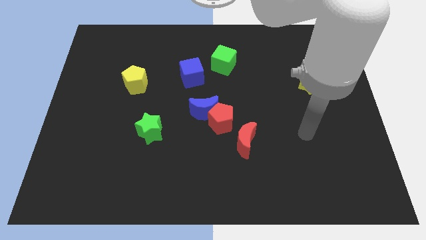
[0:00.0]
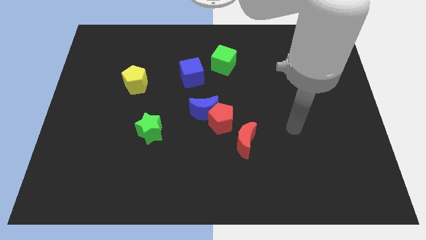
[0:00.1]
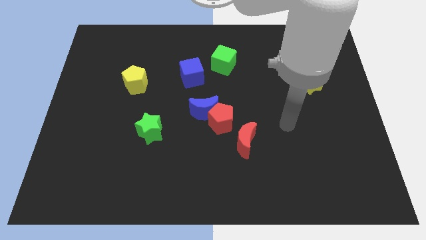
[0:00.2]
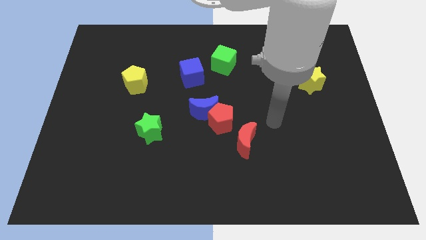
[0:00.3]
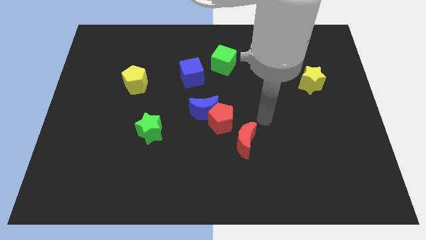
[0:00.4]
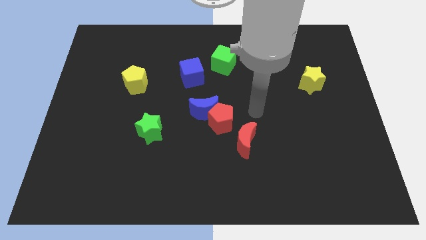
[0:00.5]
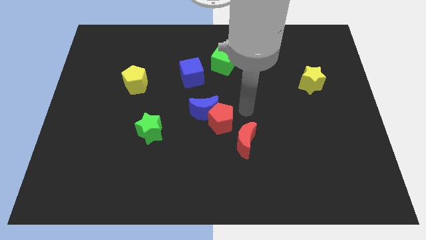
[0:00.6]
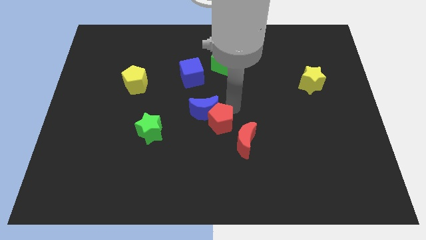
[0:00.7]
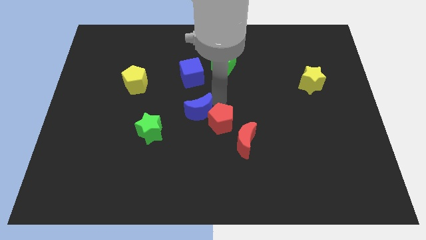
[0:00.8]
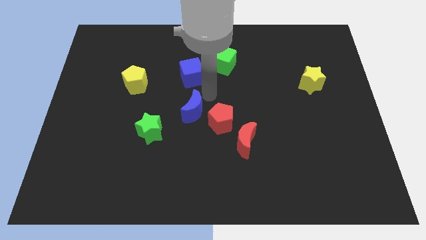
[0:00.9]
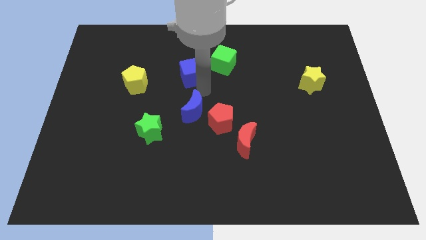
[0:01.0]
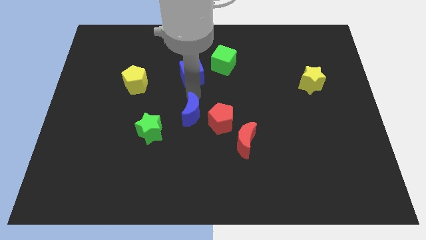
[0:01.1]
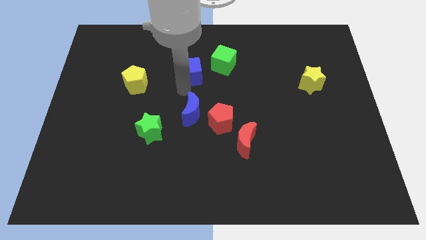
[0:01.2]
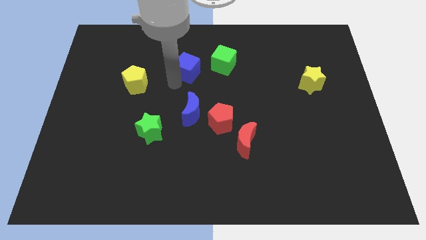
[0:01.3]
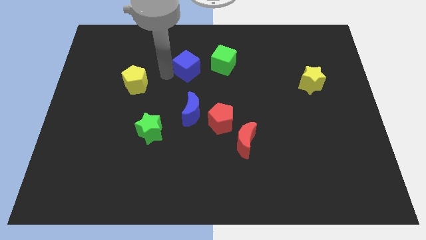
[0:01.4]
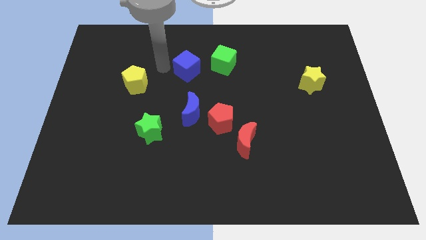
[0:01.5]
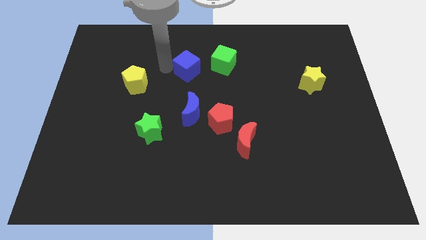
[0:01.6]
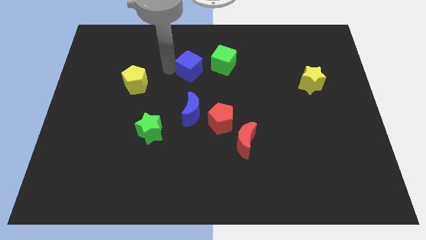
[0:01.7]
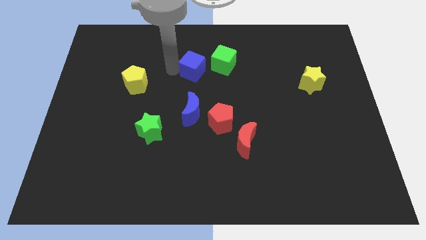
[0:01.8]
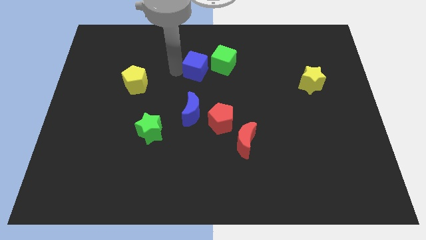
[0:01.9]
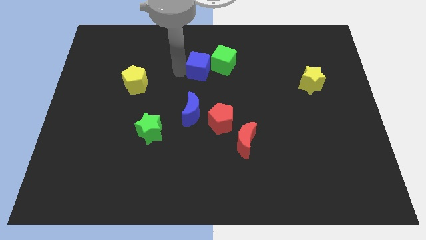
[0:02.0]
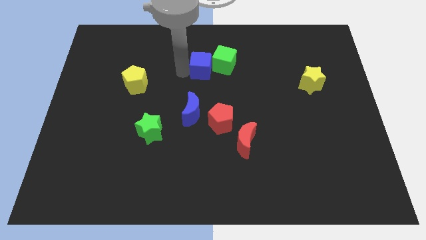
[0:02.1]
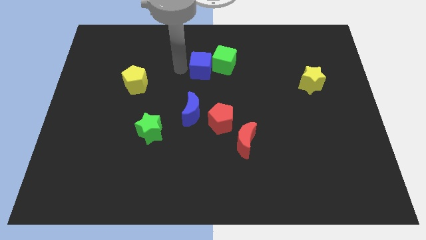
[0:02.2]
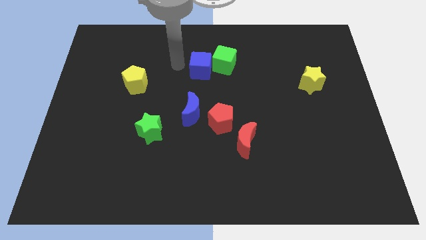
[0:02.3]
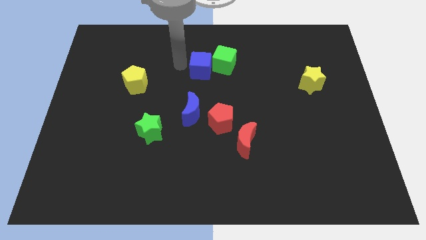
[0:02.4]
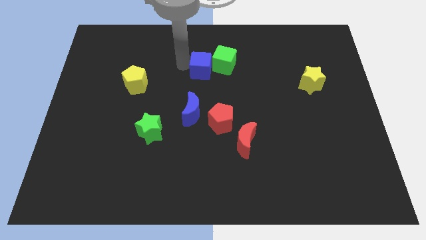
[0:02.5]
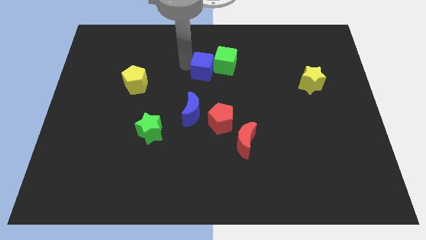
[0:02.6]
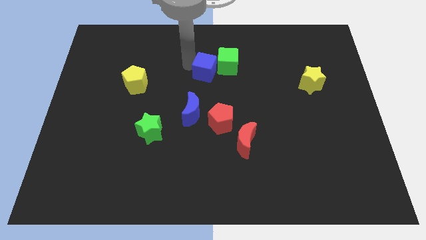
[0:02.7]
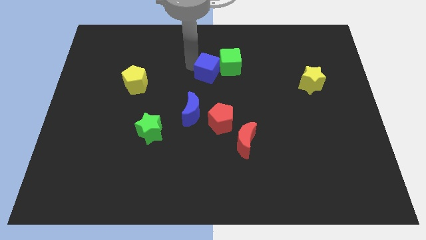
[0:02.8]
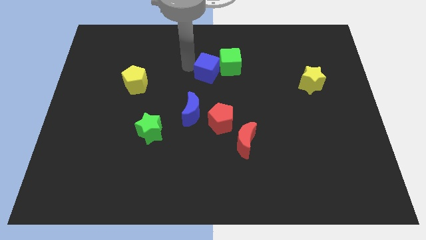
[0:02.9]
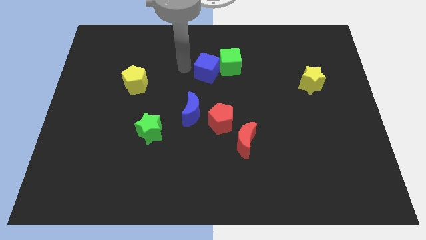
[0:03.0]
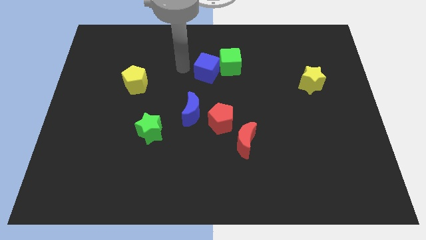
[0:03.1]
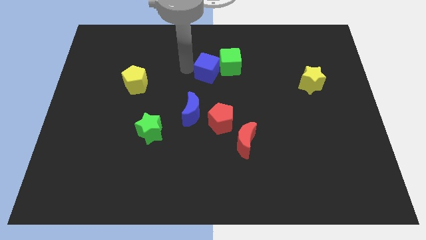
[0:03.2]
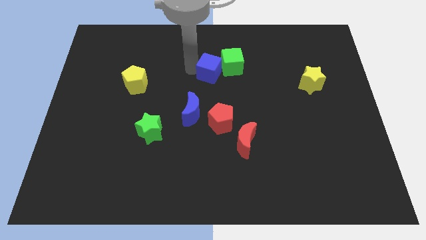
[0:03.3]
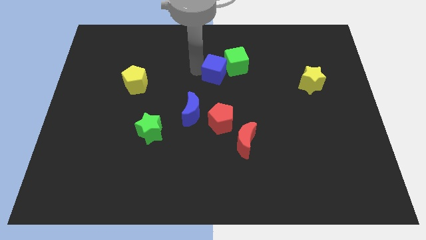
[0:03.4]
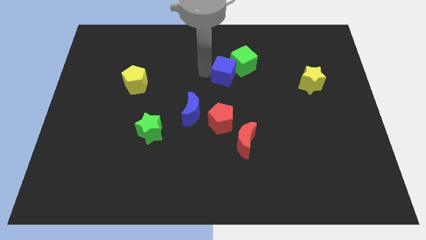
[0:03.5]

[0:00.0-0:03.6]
move the blue cube to the right a little

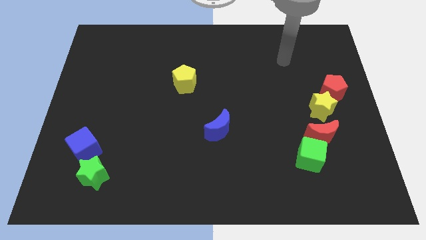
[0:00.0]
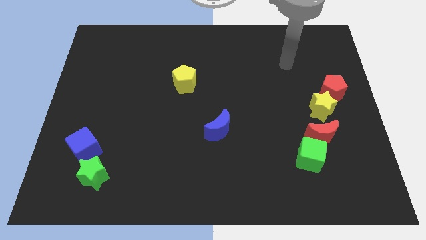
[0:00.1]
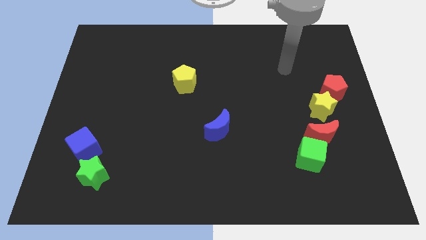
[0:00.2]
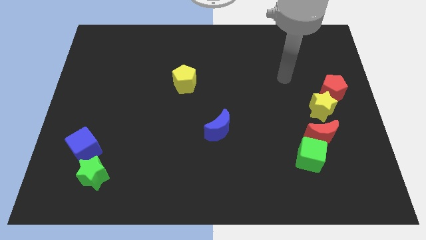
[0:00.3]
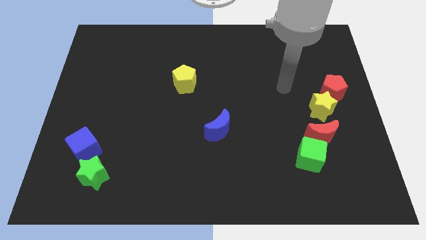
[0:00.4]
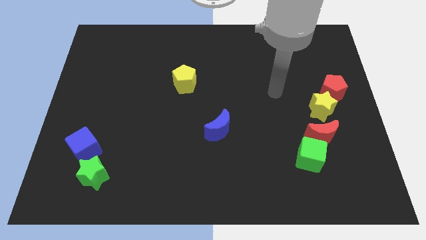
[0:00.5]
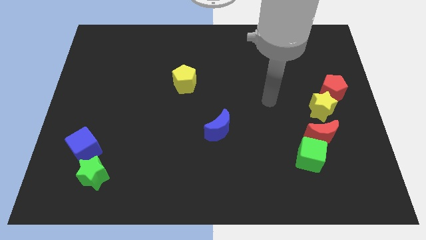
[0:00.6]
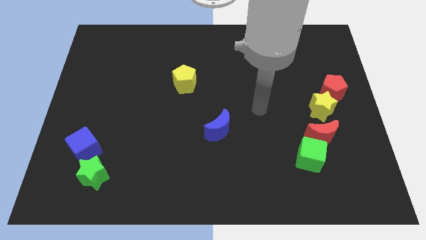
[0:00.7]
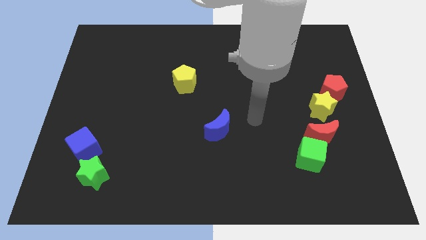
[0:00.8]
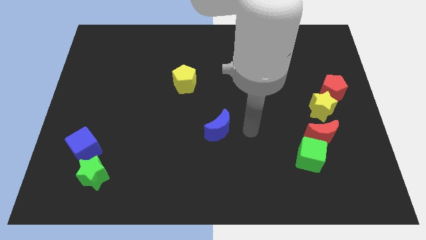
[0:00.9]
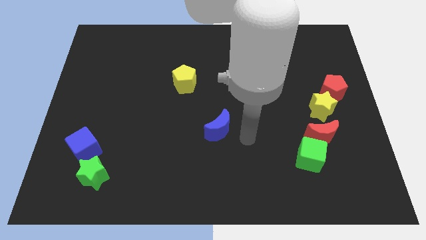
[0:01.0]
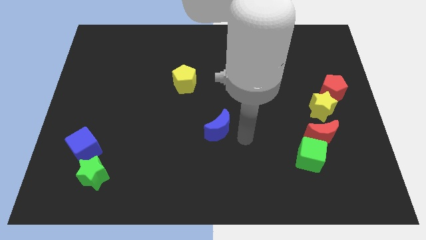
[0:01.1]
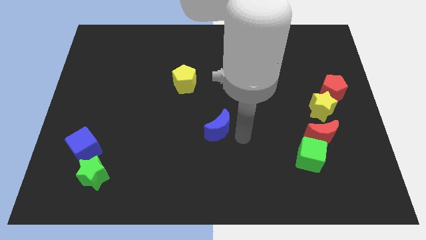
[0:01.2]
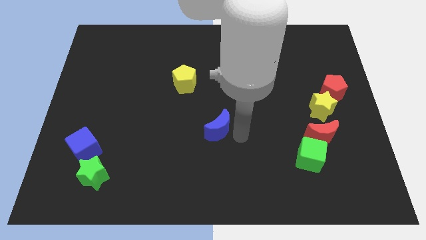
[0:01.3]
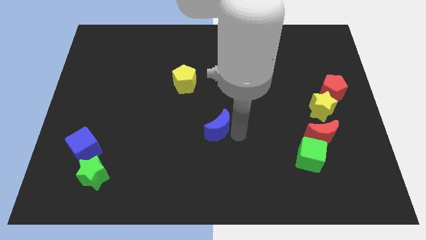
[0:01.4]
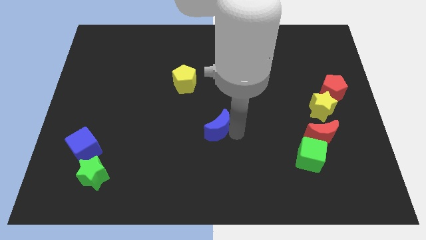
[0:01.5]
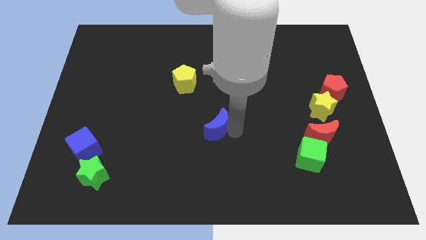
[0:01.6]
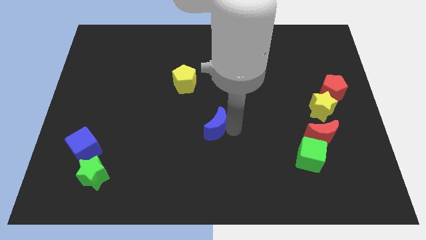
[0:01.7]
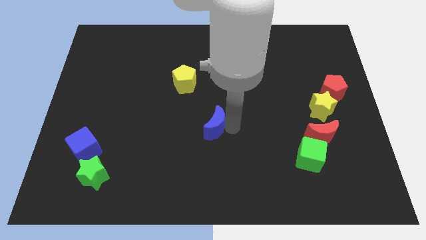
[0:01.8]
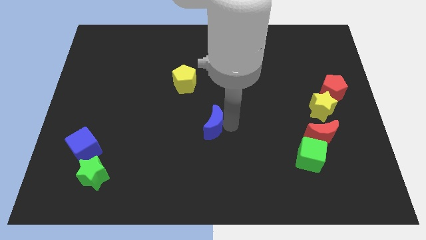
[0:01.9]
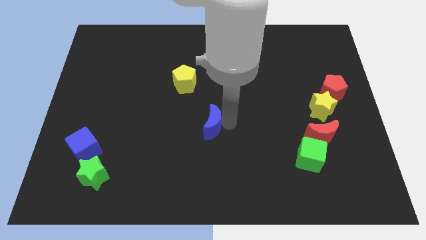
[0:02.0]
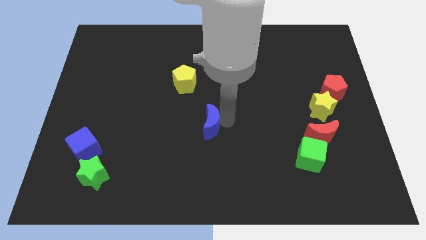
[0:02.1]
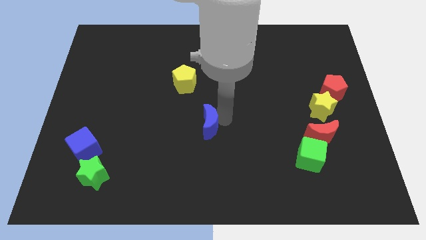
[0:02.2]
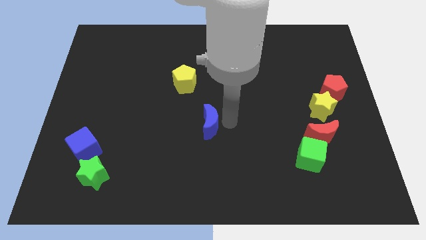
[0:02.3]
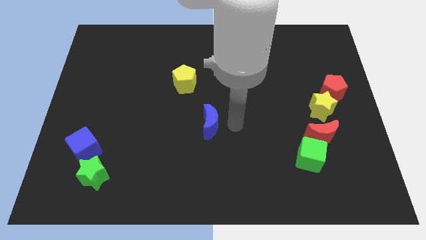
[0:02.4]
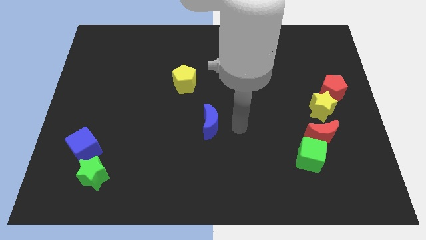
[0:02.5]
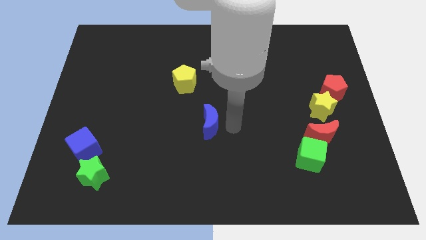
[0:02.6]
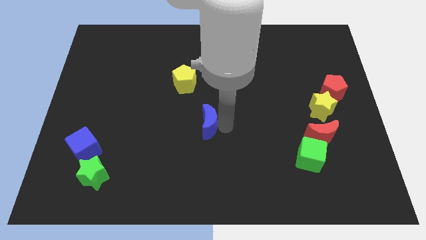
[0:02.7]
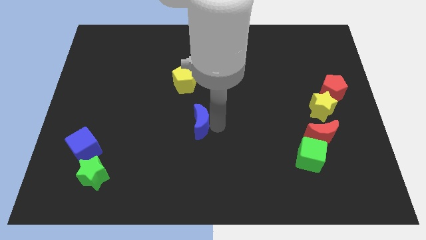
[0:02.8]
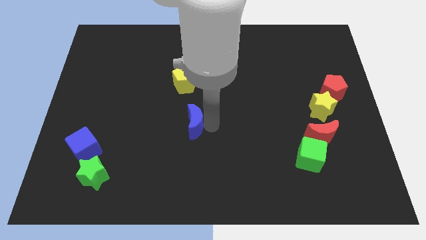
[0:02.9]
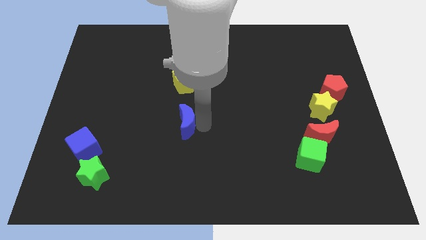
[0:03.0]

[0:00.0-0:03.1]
slide the blue moon left somewhat

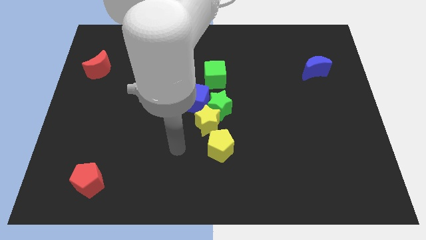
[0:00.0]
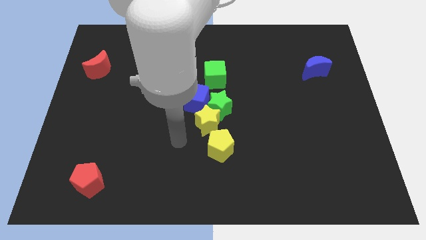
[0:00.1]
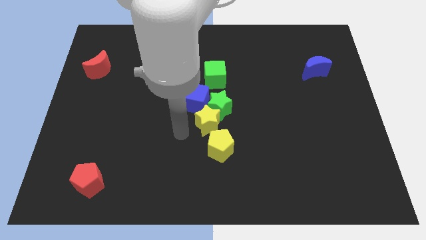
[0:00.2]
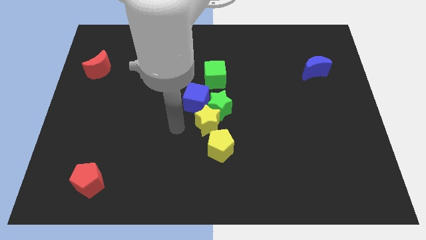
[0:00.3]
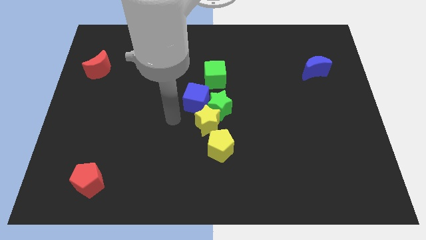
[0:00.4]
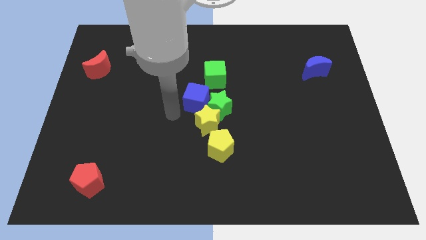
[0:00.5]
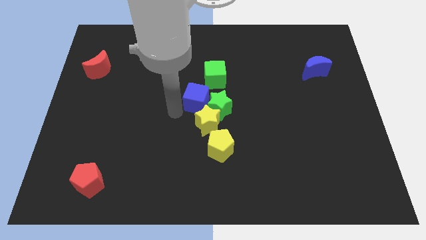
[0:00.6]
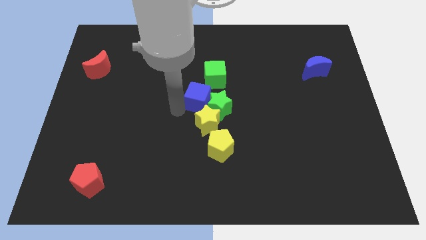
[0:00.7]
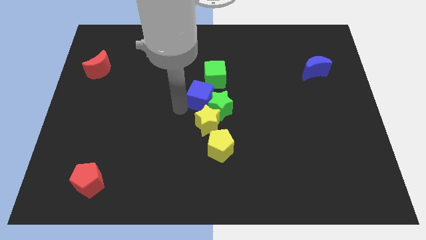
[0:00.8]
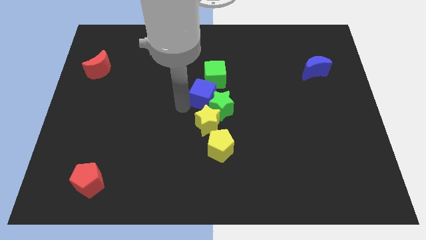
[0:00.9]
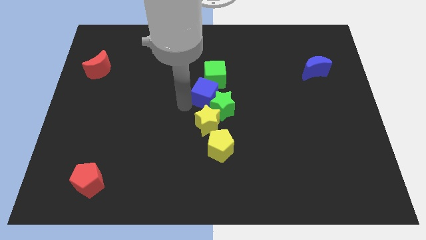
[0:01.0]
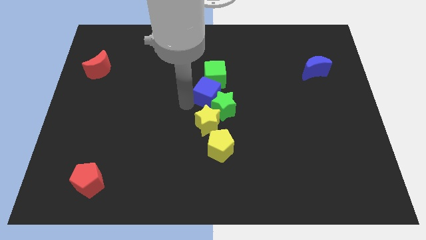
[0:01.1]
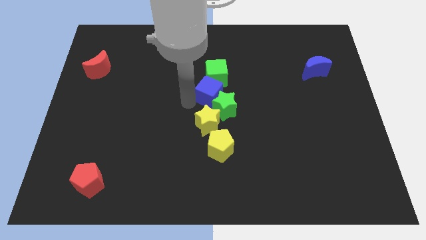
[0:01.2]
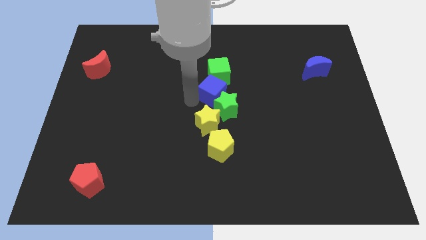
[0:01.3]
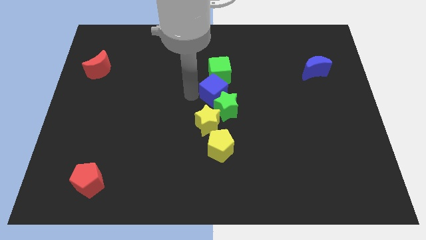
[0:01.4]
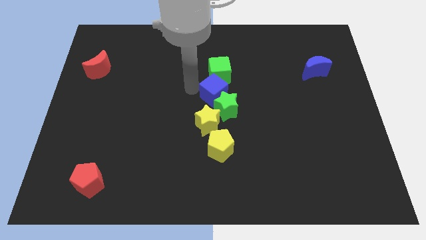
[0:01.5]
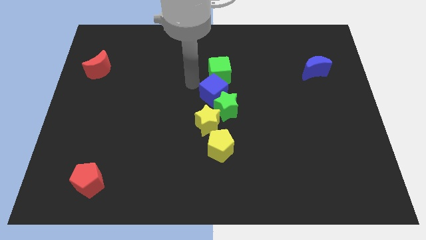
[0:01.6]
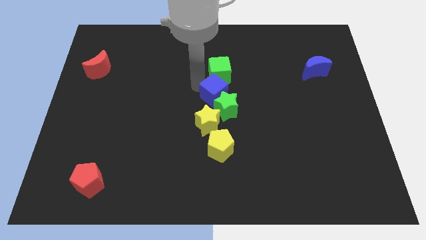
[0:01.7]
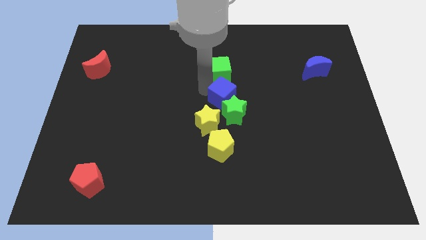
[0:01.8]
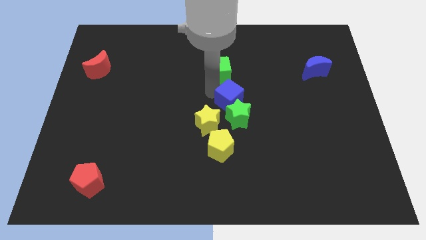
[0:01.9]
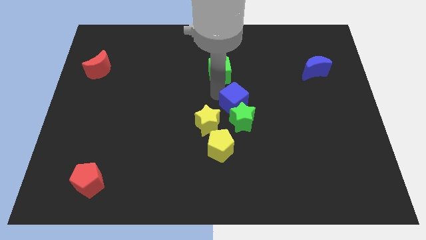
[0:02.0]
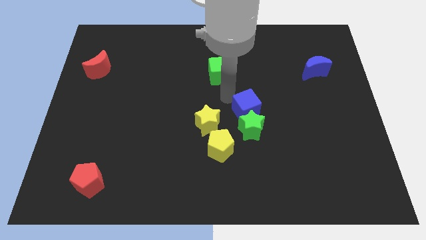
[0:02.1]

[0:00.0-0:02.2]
push the blue cube a bit diagonally down and right
